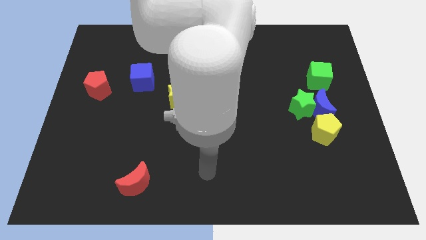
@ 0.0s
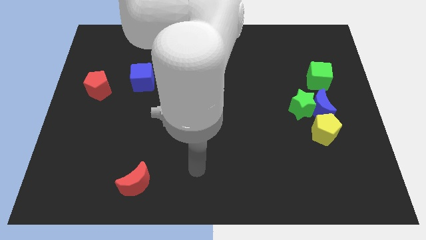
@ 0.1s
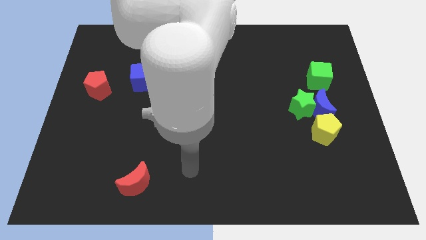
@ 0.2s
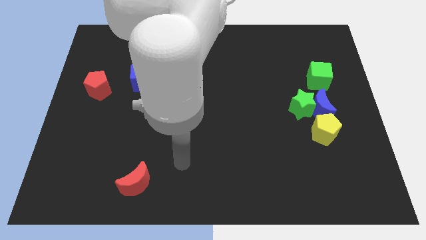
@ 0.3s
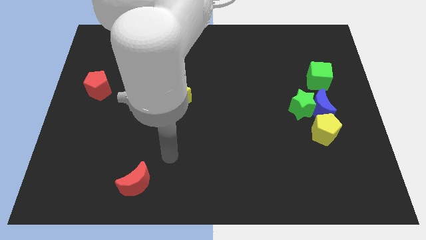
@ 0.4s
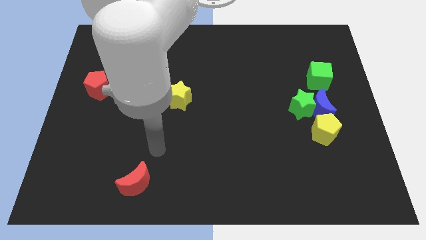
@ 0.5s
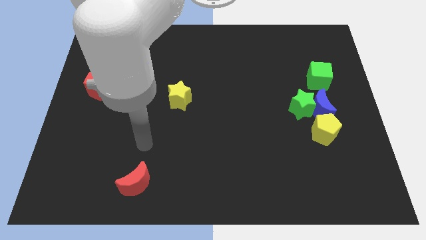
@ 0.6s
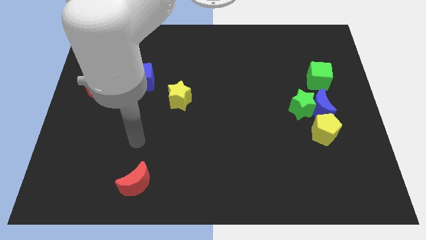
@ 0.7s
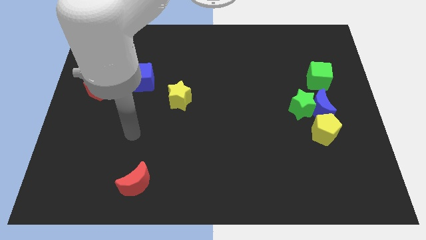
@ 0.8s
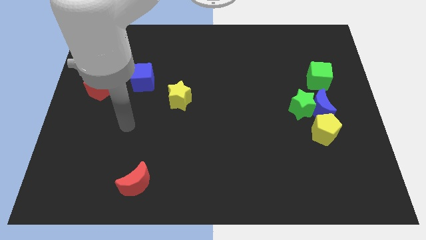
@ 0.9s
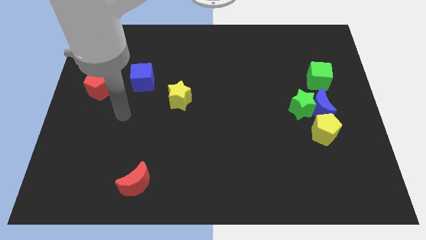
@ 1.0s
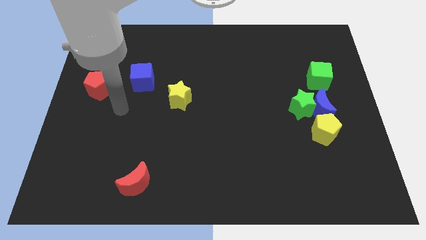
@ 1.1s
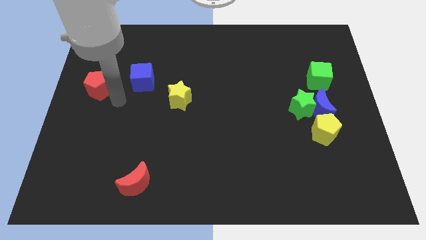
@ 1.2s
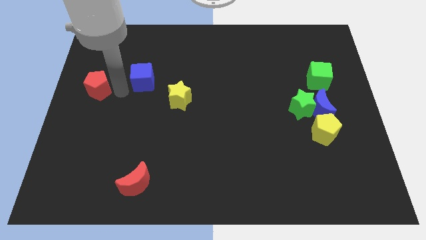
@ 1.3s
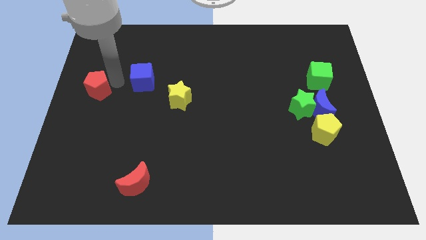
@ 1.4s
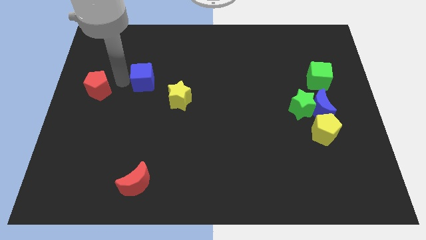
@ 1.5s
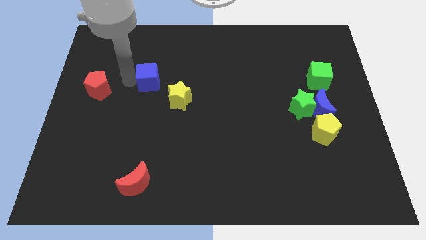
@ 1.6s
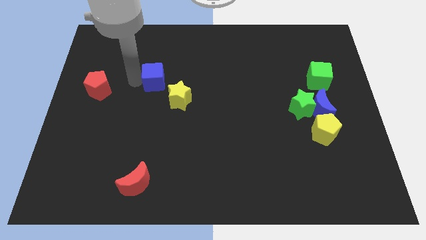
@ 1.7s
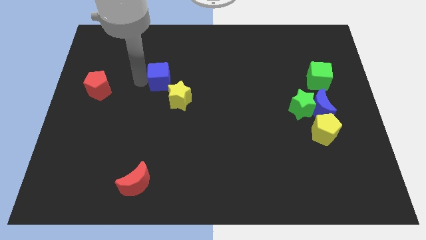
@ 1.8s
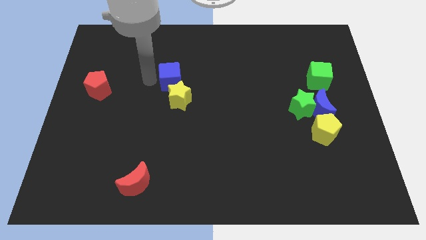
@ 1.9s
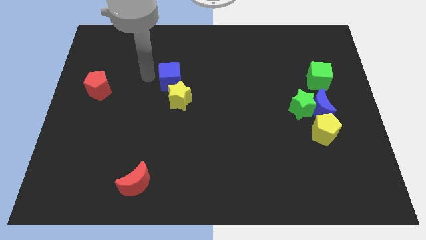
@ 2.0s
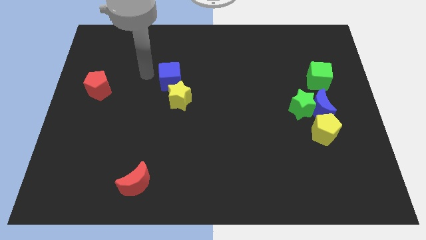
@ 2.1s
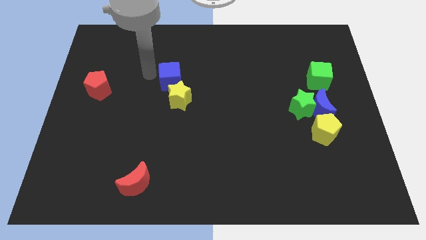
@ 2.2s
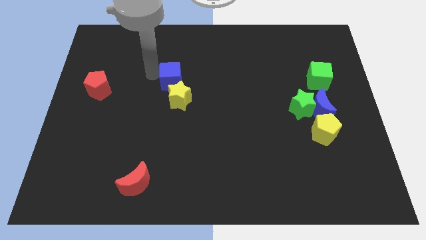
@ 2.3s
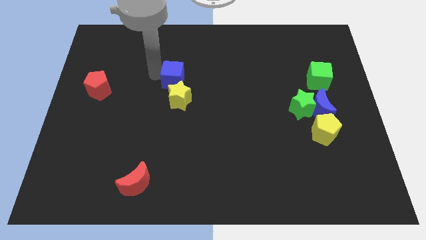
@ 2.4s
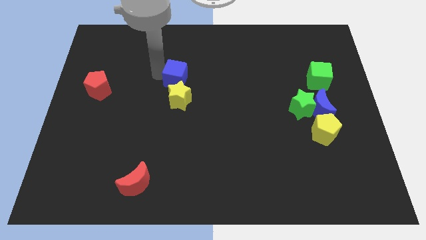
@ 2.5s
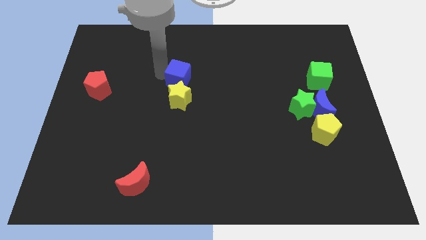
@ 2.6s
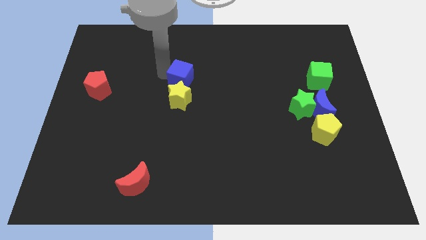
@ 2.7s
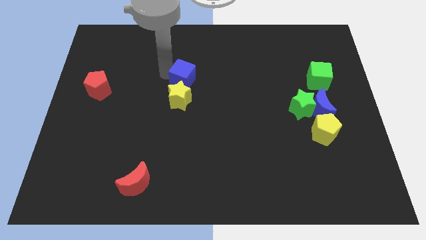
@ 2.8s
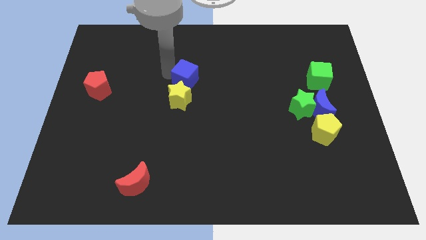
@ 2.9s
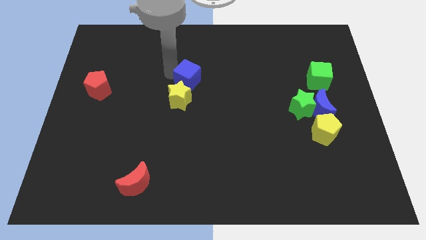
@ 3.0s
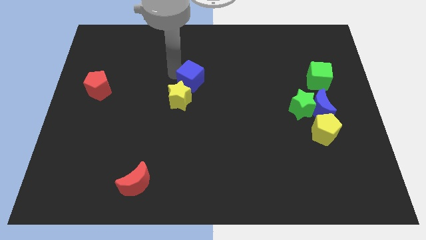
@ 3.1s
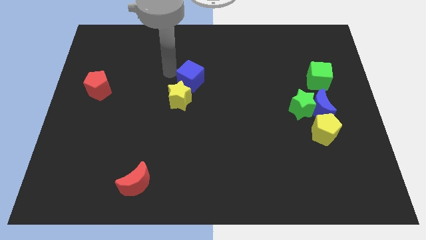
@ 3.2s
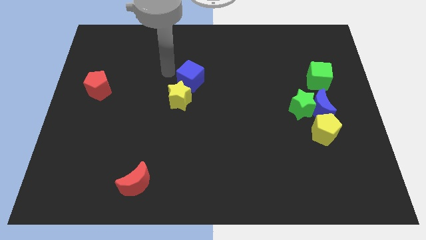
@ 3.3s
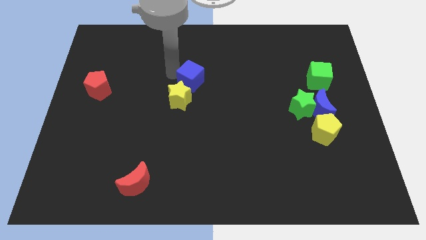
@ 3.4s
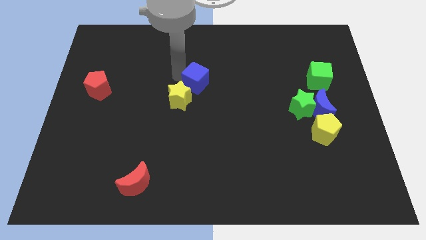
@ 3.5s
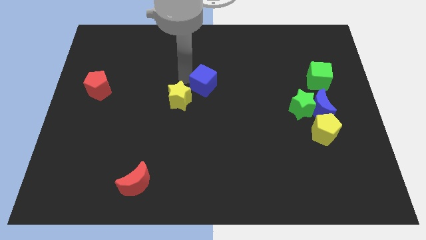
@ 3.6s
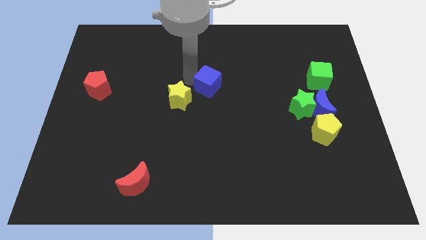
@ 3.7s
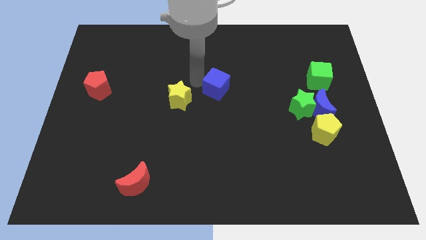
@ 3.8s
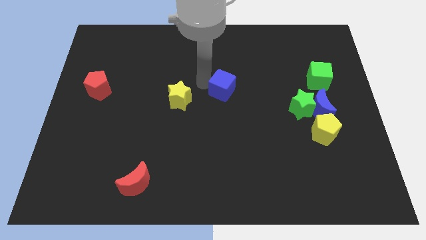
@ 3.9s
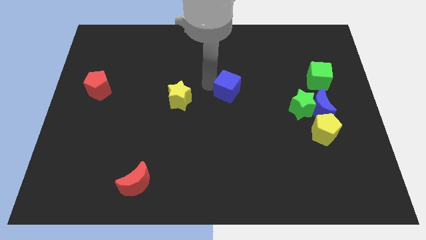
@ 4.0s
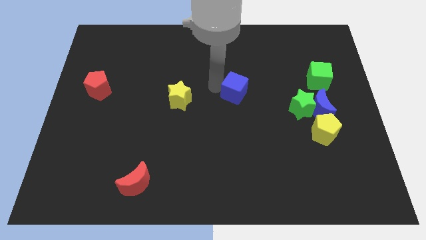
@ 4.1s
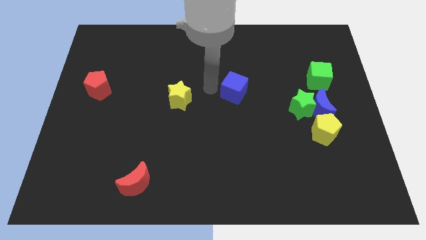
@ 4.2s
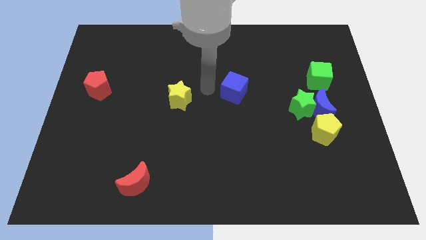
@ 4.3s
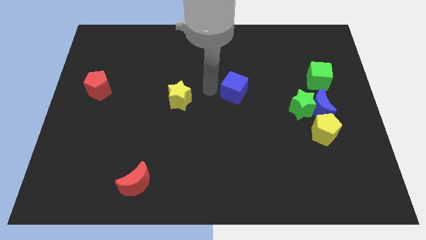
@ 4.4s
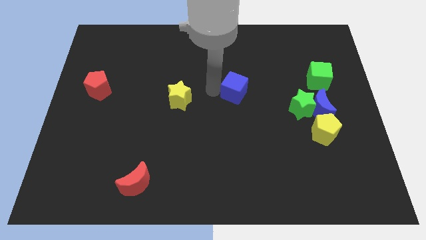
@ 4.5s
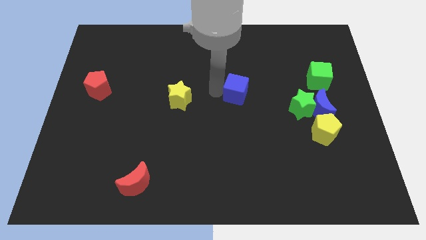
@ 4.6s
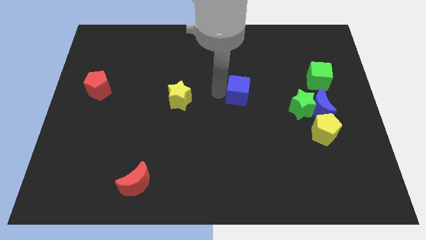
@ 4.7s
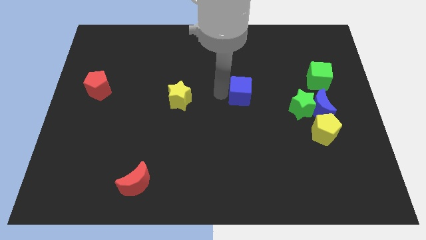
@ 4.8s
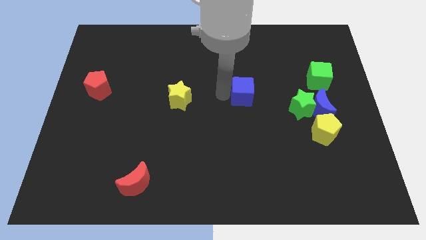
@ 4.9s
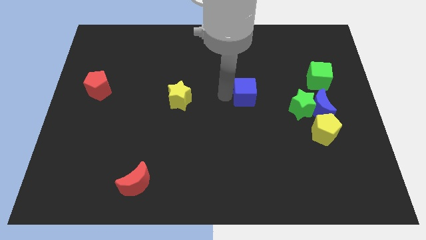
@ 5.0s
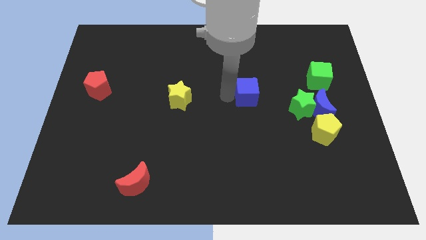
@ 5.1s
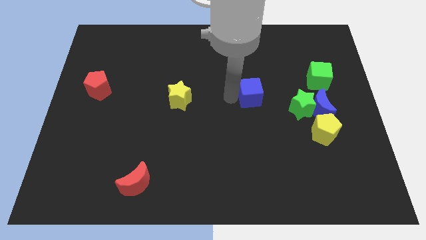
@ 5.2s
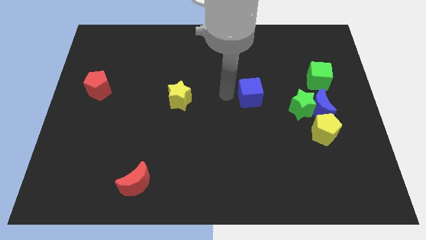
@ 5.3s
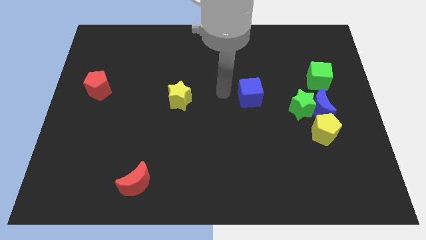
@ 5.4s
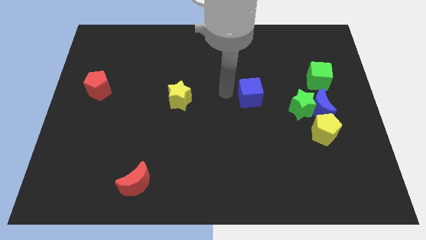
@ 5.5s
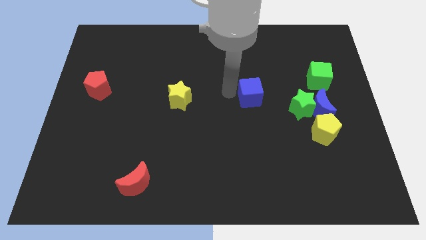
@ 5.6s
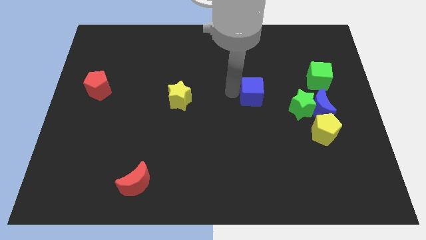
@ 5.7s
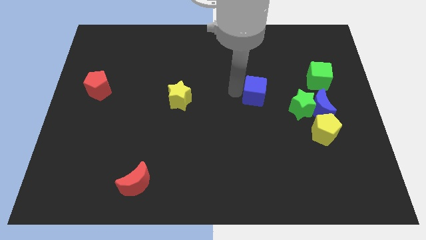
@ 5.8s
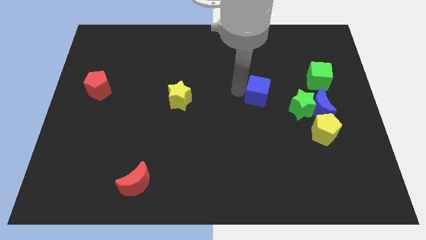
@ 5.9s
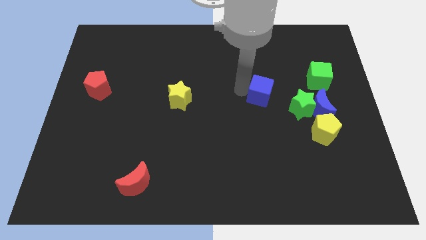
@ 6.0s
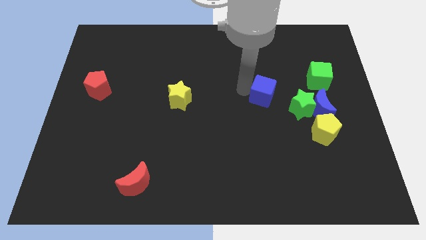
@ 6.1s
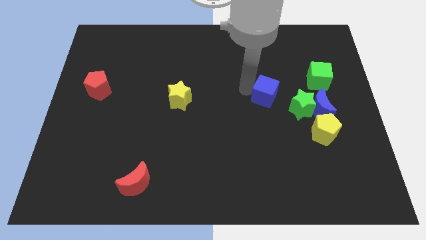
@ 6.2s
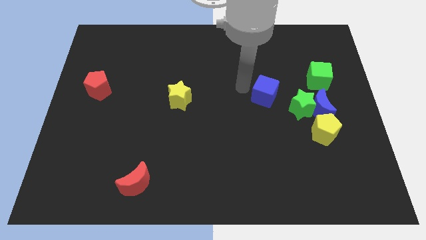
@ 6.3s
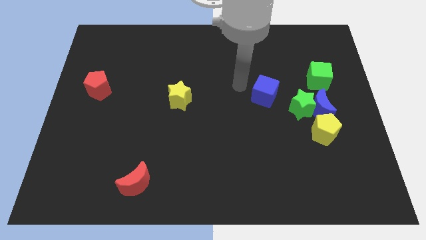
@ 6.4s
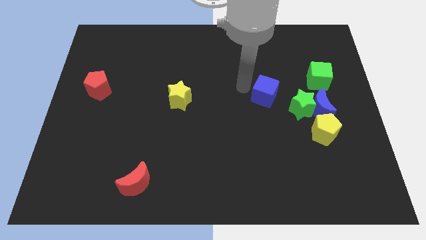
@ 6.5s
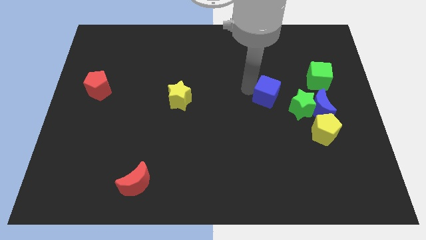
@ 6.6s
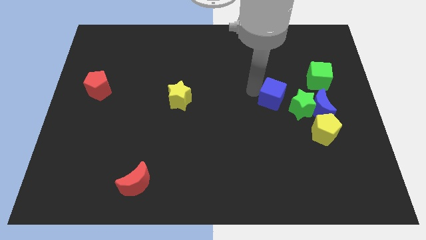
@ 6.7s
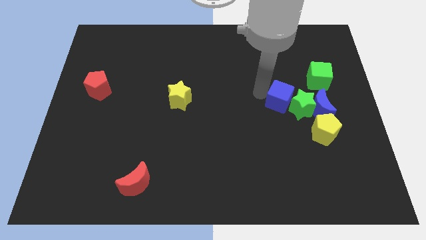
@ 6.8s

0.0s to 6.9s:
move the blue cube to the green star
